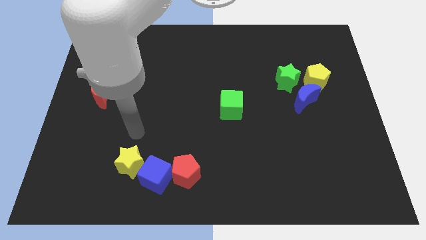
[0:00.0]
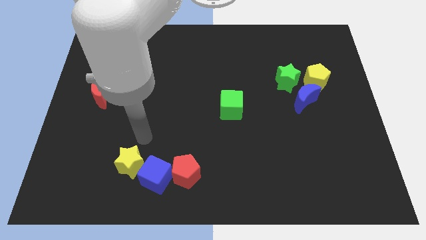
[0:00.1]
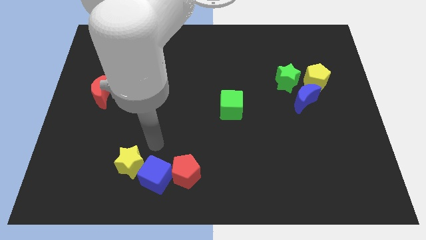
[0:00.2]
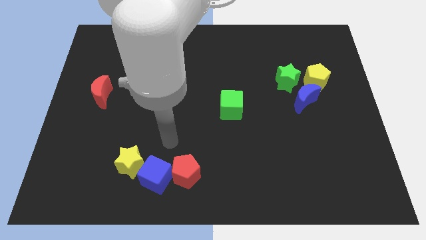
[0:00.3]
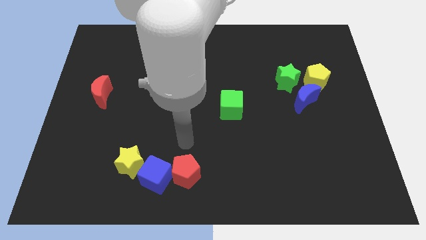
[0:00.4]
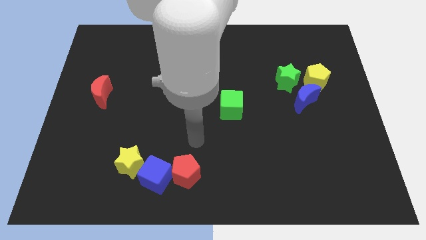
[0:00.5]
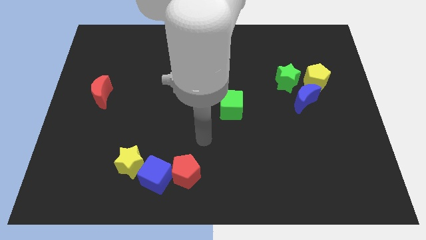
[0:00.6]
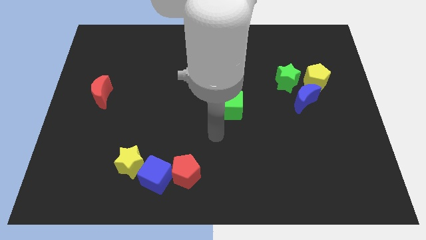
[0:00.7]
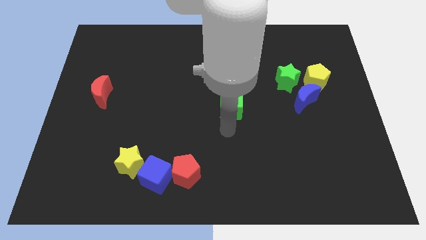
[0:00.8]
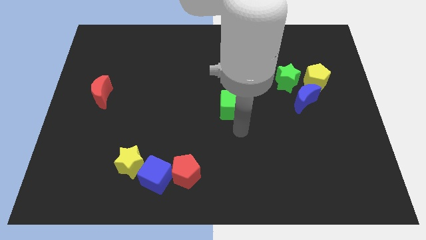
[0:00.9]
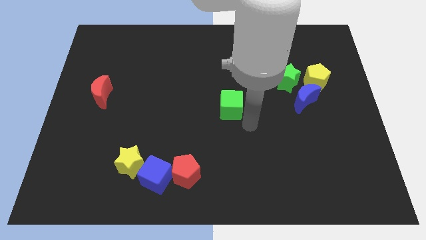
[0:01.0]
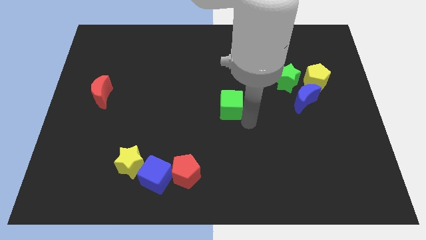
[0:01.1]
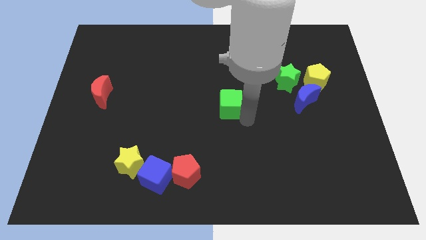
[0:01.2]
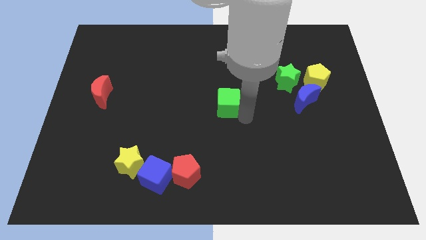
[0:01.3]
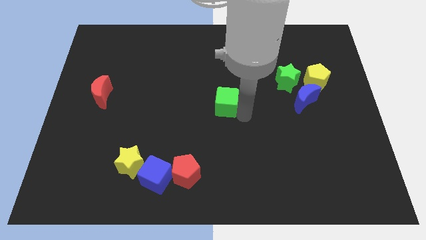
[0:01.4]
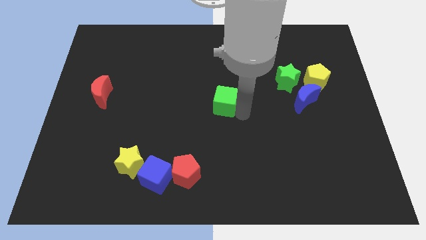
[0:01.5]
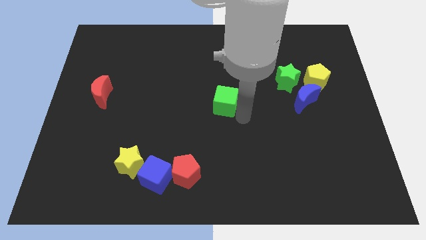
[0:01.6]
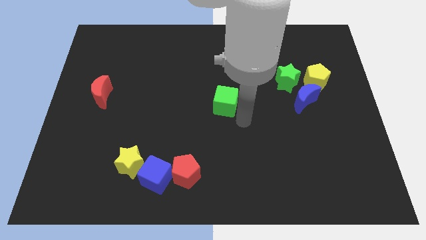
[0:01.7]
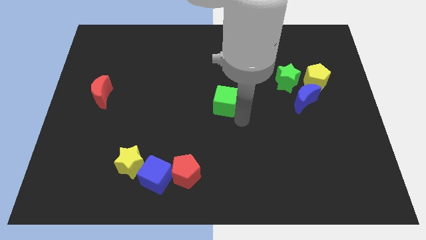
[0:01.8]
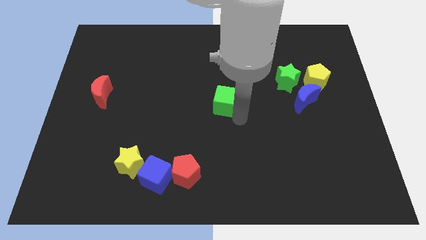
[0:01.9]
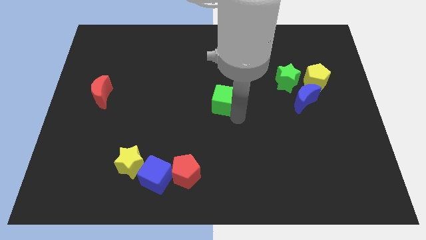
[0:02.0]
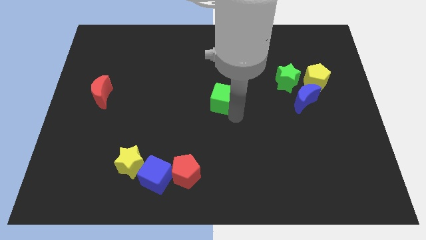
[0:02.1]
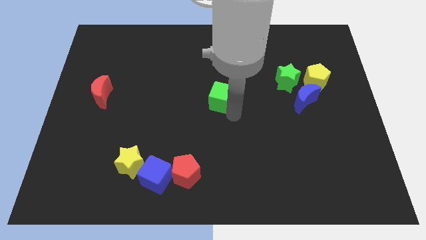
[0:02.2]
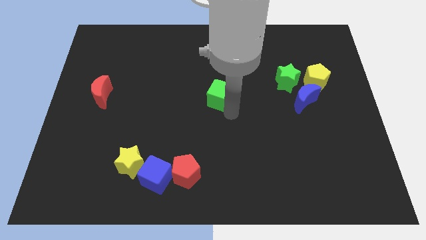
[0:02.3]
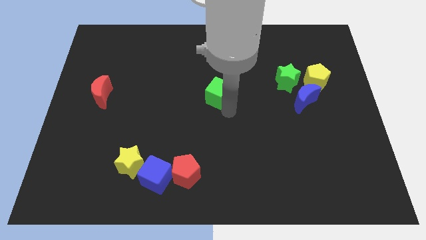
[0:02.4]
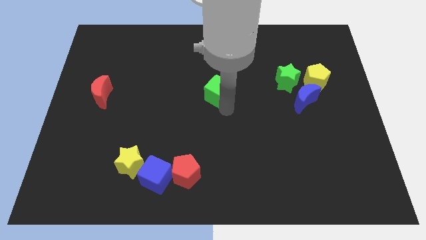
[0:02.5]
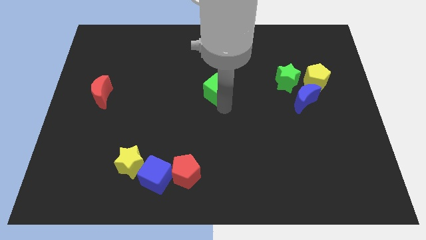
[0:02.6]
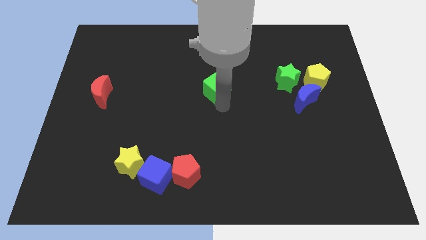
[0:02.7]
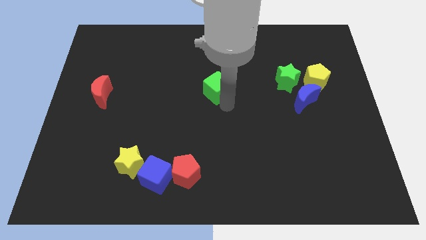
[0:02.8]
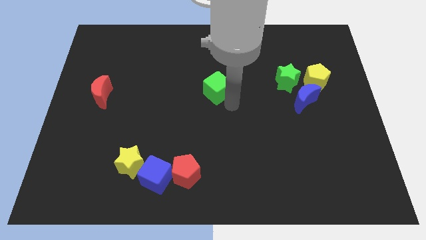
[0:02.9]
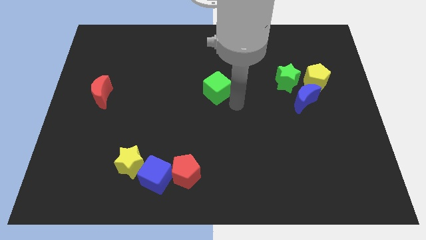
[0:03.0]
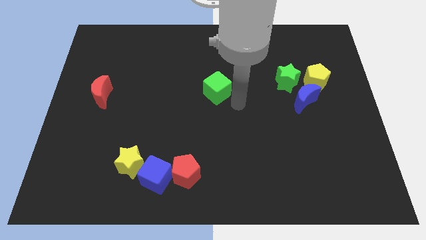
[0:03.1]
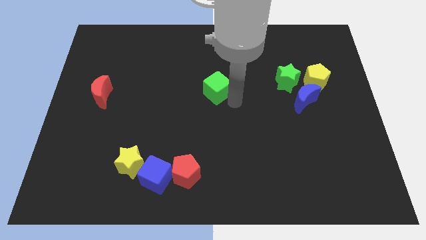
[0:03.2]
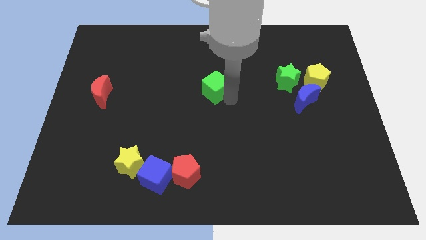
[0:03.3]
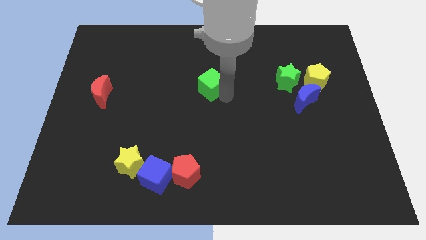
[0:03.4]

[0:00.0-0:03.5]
slide the green cube upwards and left diagonally slightly

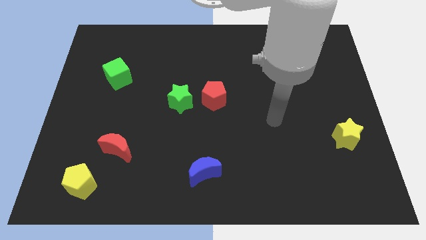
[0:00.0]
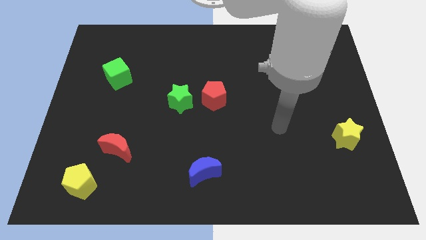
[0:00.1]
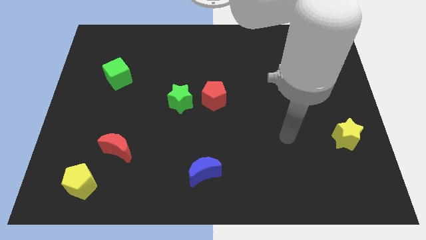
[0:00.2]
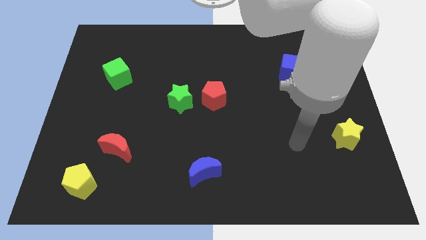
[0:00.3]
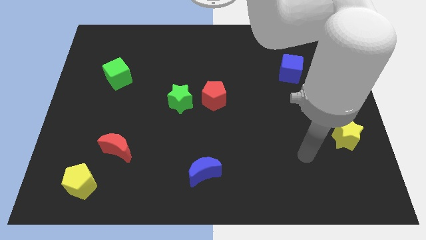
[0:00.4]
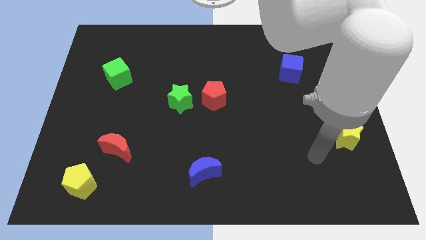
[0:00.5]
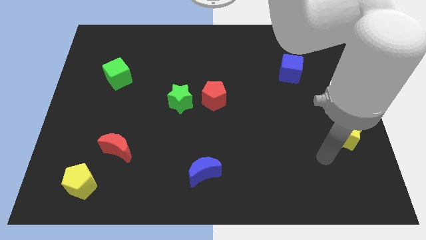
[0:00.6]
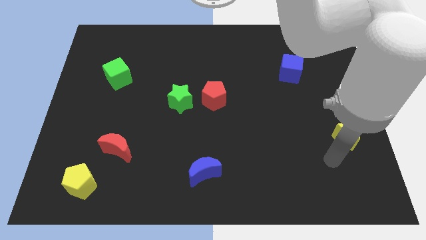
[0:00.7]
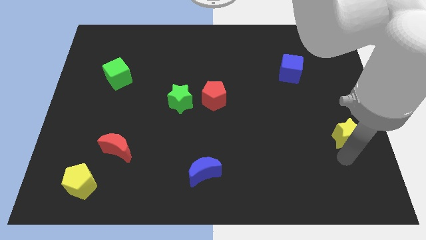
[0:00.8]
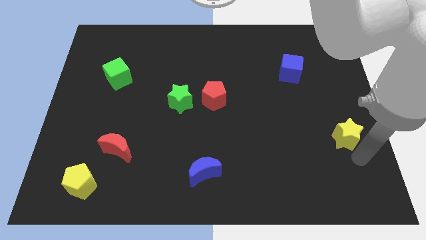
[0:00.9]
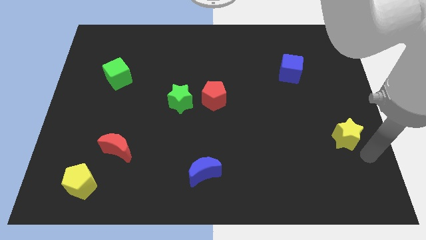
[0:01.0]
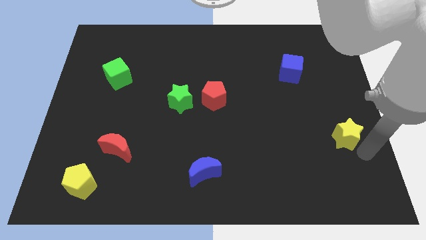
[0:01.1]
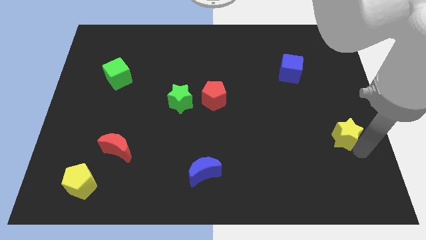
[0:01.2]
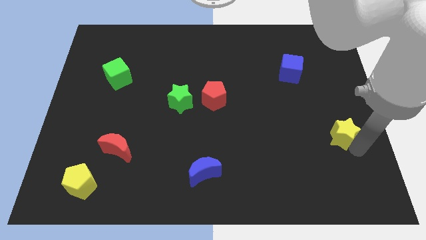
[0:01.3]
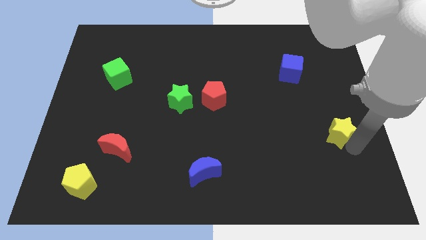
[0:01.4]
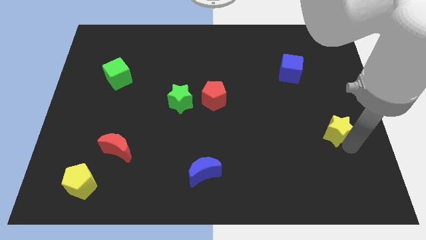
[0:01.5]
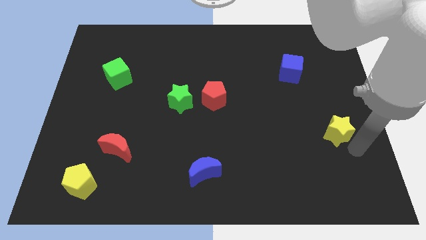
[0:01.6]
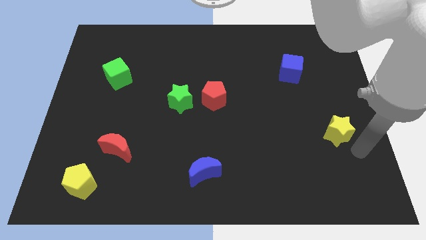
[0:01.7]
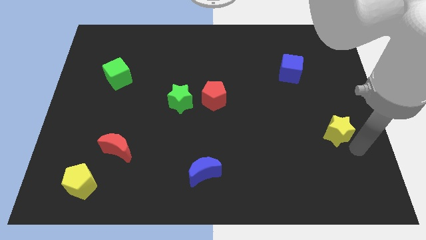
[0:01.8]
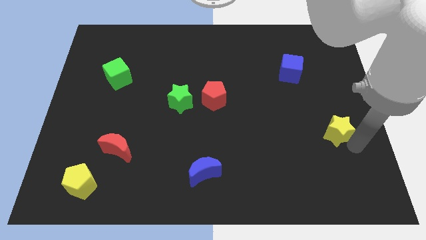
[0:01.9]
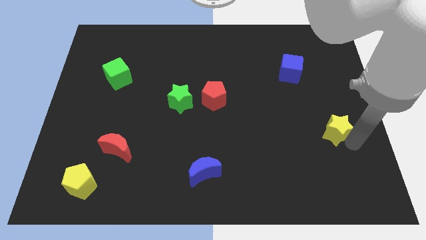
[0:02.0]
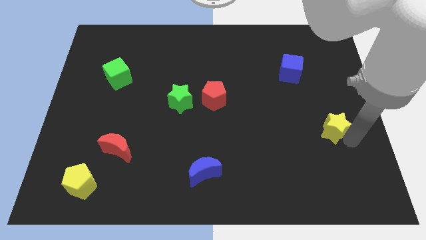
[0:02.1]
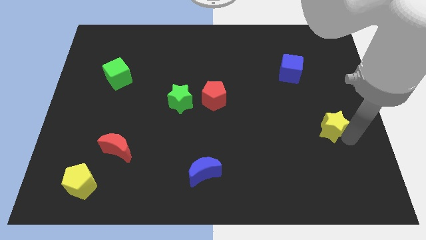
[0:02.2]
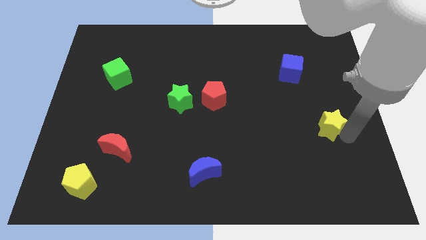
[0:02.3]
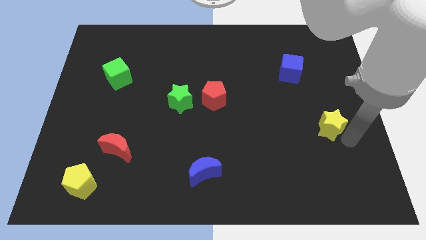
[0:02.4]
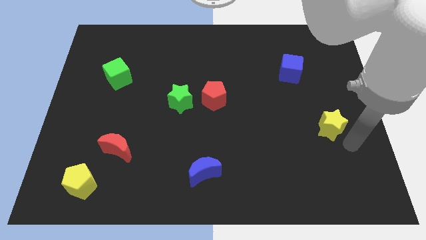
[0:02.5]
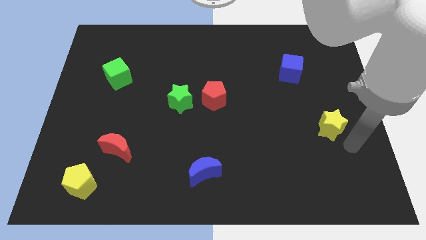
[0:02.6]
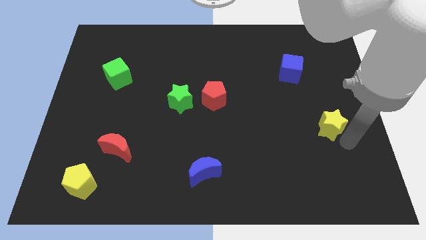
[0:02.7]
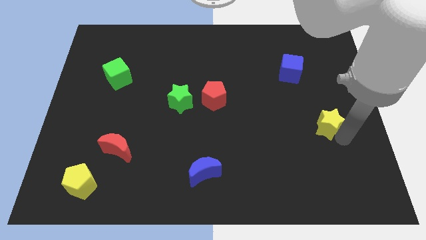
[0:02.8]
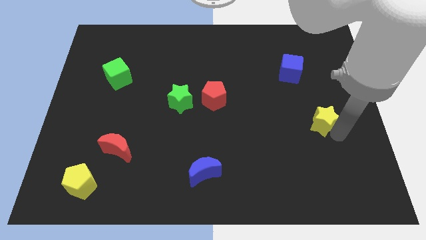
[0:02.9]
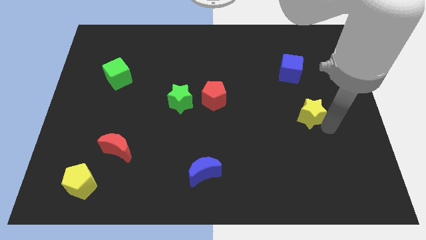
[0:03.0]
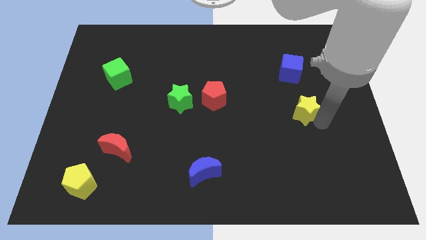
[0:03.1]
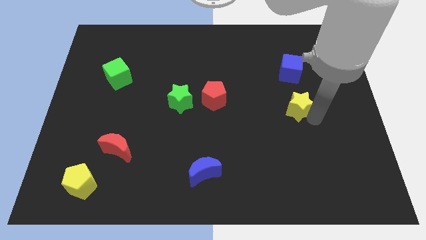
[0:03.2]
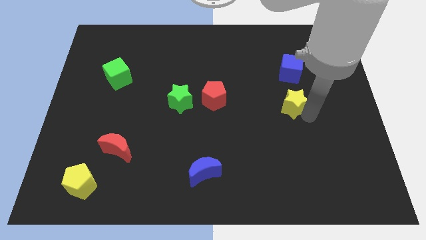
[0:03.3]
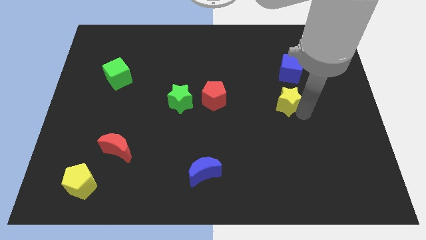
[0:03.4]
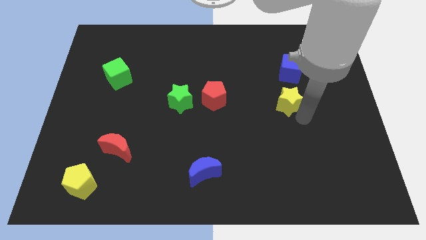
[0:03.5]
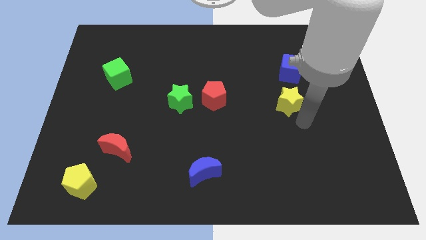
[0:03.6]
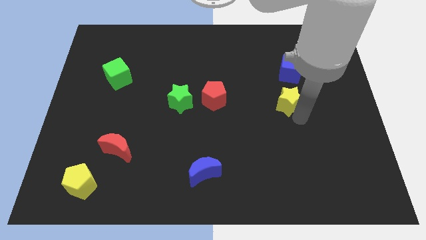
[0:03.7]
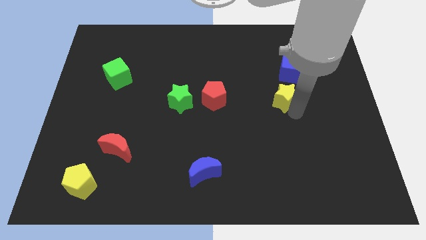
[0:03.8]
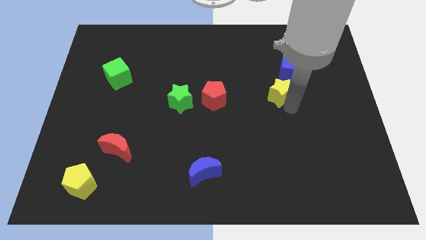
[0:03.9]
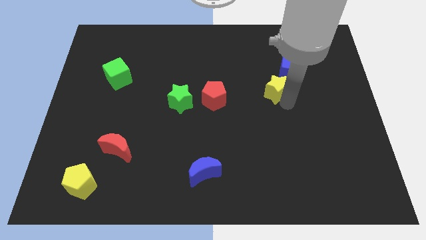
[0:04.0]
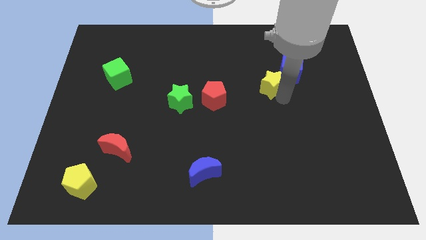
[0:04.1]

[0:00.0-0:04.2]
slide the yellow star upwards and to the left diagonally

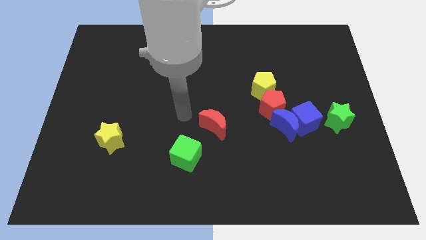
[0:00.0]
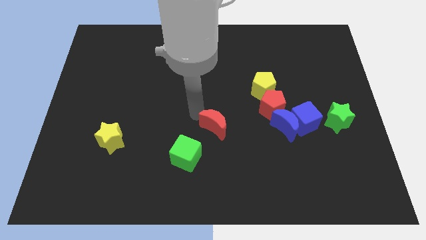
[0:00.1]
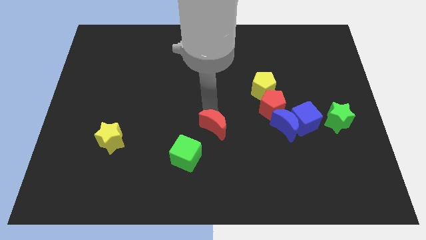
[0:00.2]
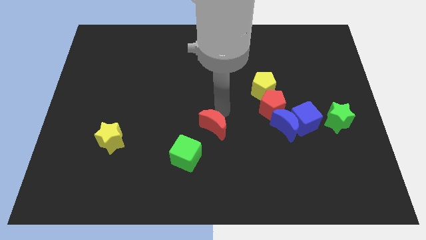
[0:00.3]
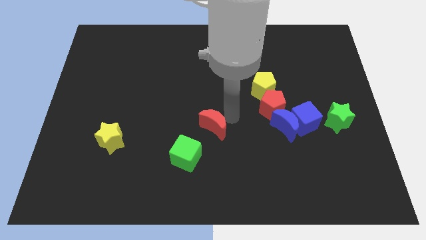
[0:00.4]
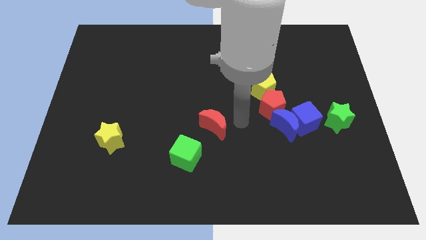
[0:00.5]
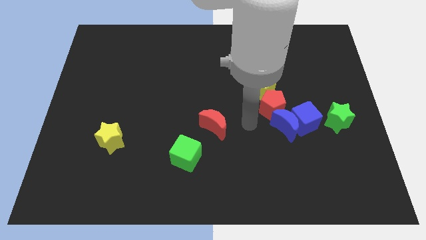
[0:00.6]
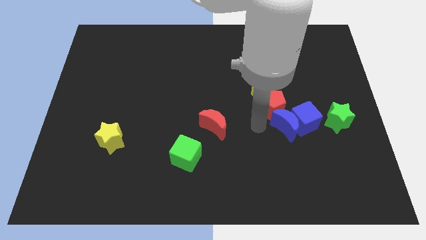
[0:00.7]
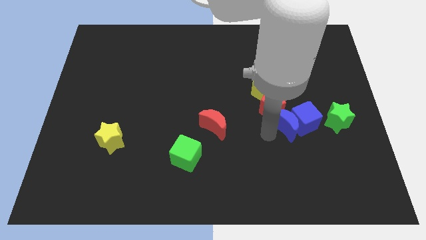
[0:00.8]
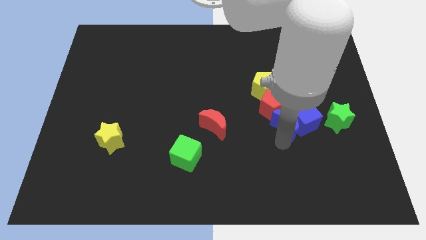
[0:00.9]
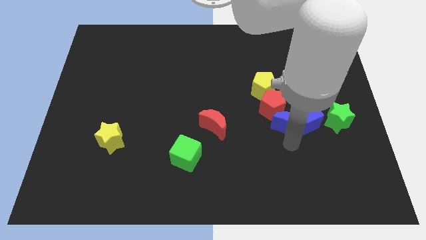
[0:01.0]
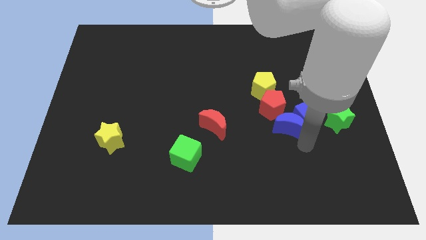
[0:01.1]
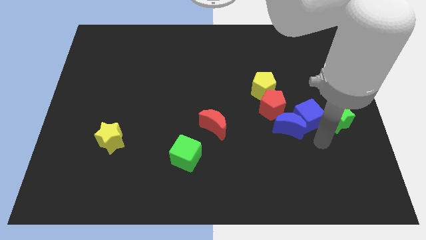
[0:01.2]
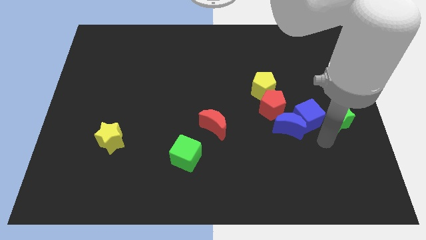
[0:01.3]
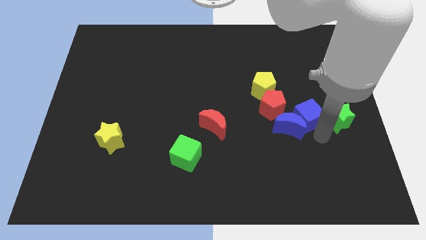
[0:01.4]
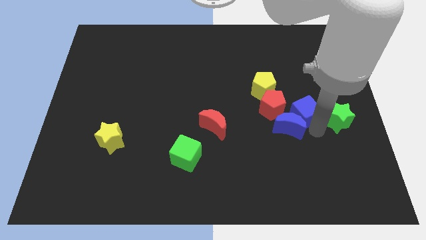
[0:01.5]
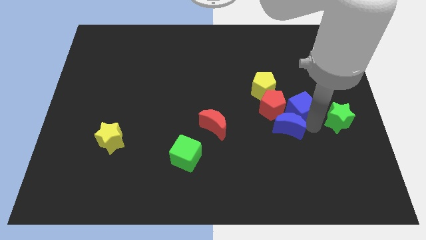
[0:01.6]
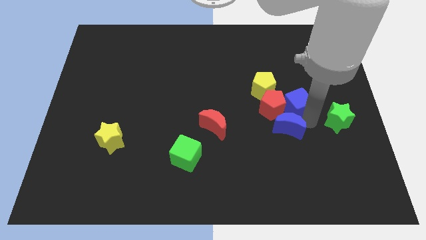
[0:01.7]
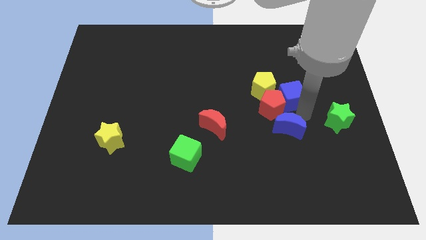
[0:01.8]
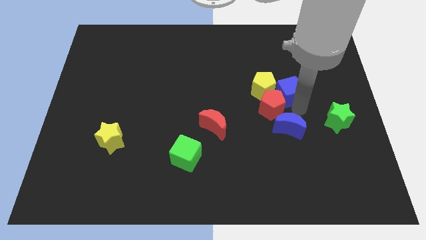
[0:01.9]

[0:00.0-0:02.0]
slightly push the blue cube diagonally up and left
